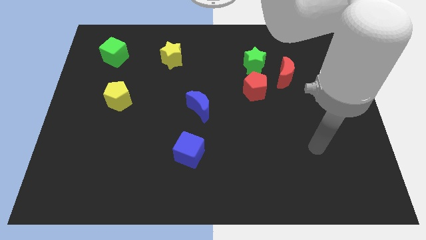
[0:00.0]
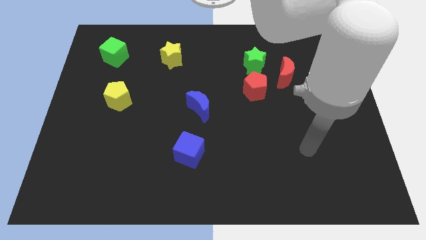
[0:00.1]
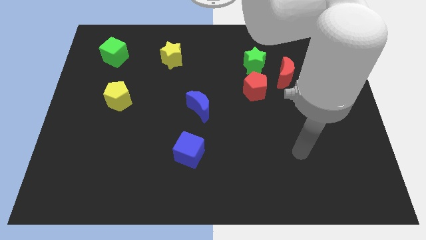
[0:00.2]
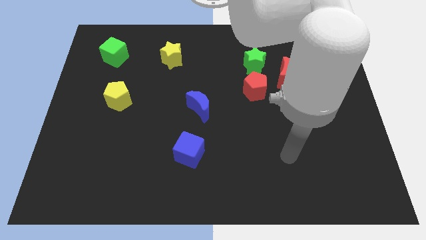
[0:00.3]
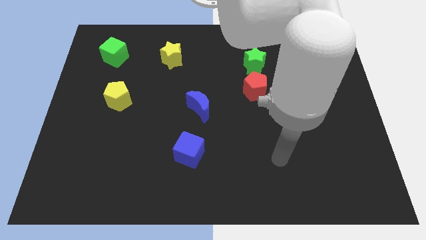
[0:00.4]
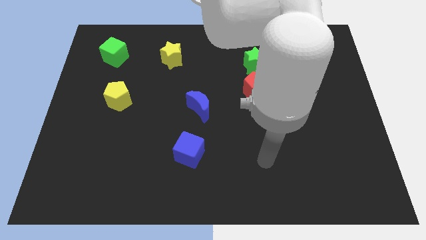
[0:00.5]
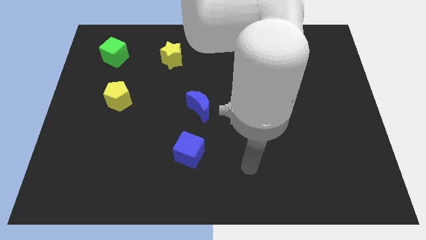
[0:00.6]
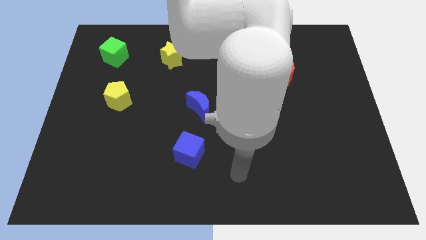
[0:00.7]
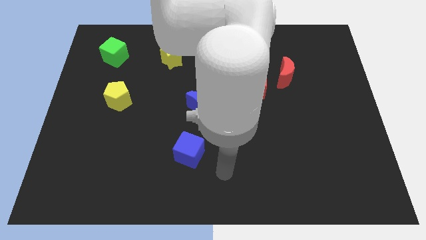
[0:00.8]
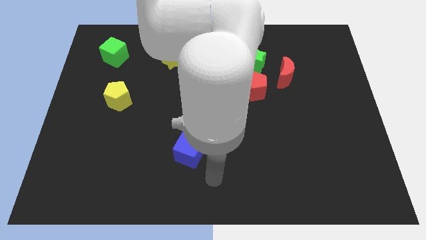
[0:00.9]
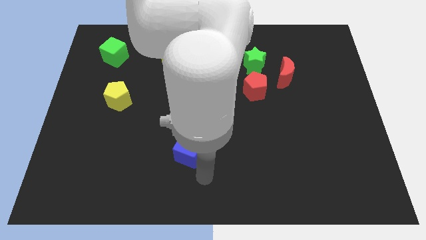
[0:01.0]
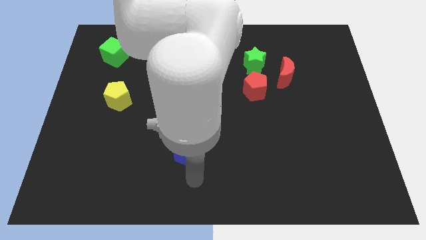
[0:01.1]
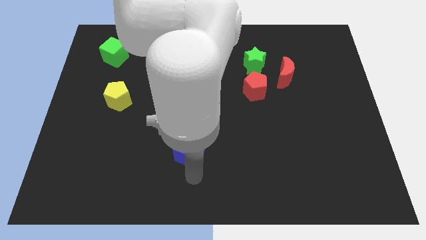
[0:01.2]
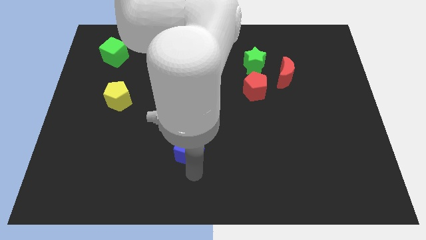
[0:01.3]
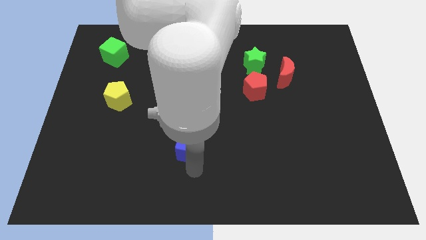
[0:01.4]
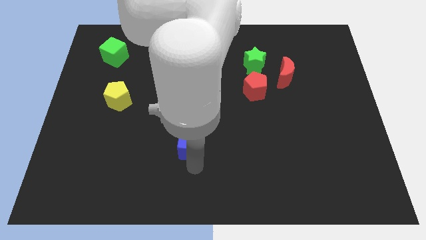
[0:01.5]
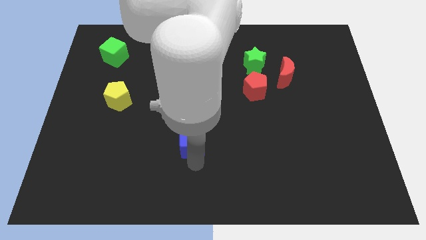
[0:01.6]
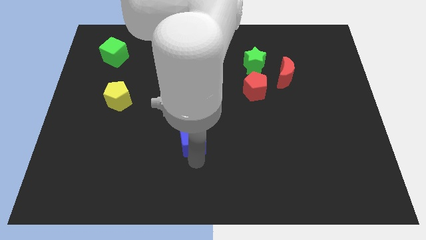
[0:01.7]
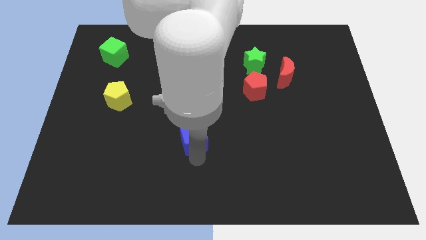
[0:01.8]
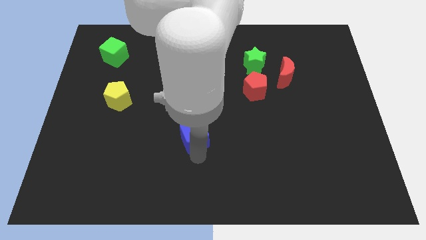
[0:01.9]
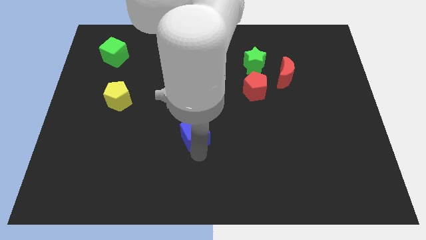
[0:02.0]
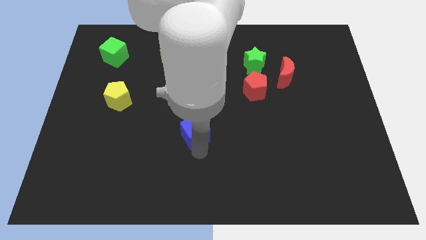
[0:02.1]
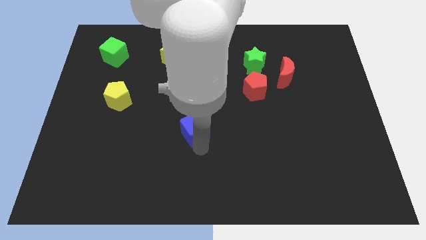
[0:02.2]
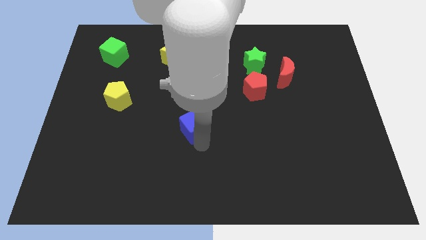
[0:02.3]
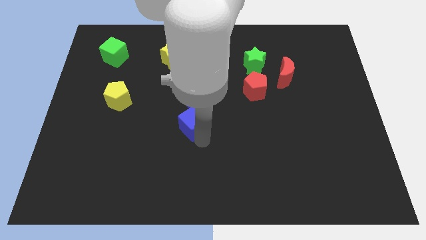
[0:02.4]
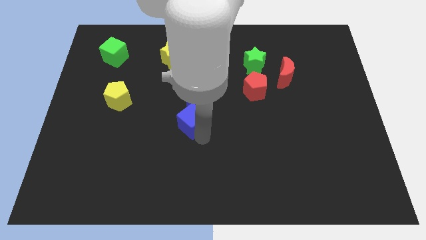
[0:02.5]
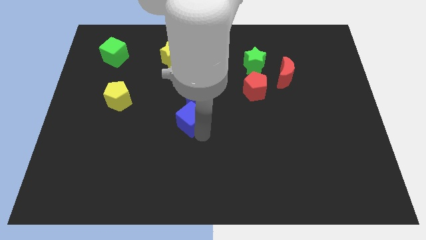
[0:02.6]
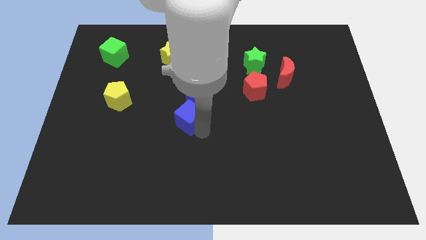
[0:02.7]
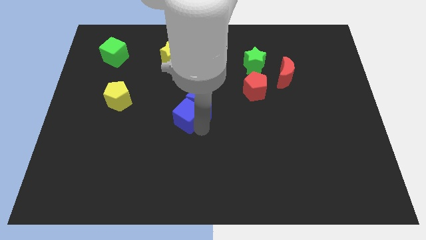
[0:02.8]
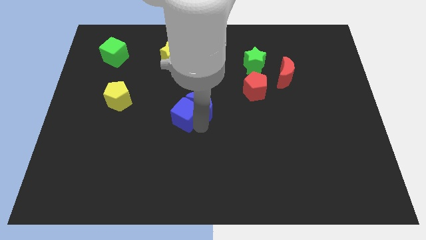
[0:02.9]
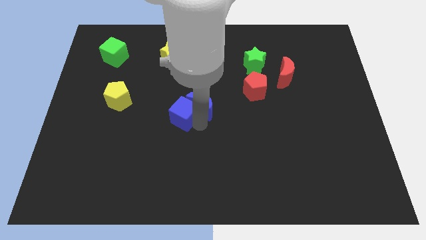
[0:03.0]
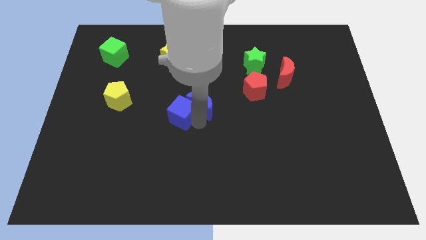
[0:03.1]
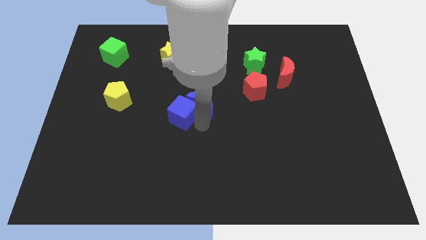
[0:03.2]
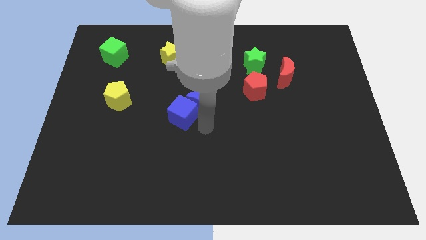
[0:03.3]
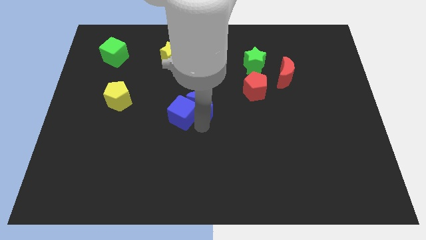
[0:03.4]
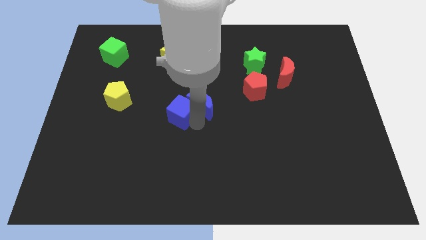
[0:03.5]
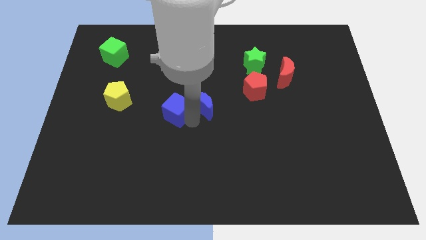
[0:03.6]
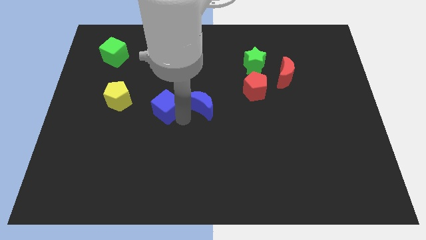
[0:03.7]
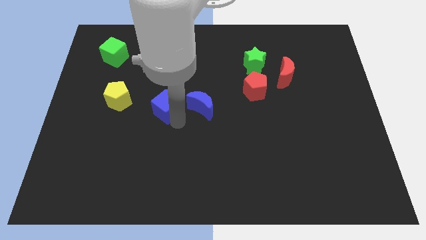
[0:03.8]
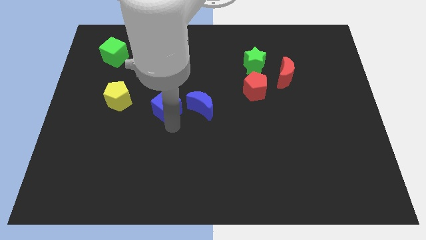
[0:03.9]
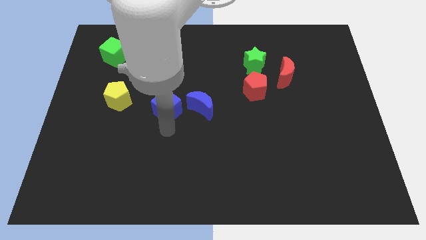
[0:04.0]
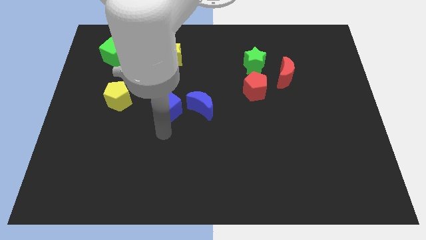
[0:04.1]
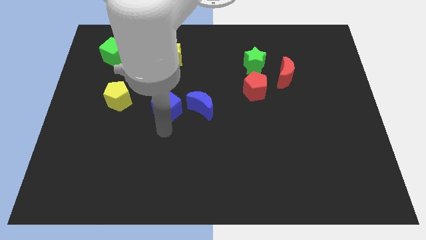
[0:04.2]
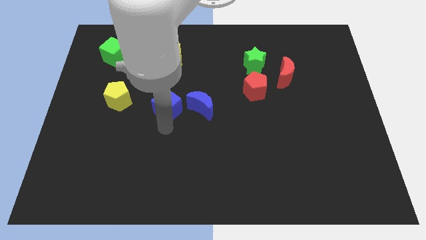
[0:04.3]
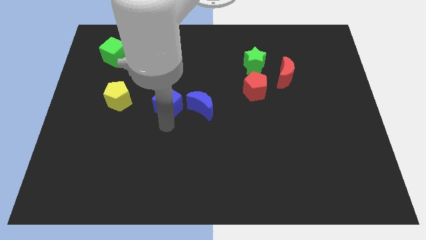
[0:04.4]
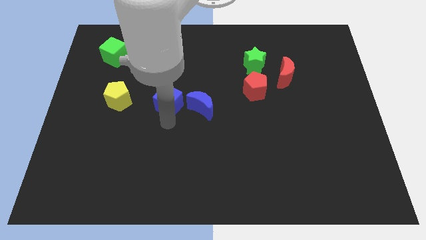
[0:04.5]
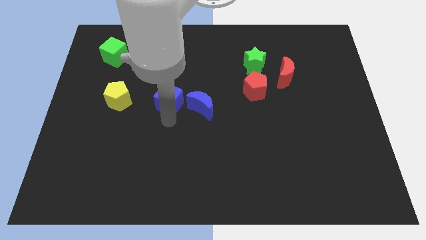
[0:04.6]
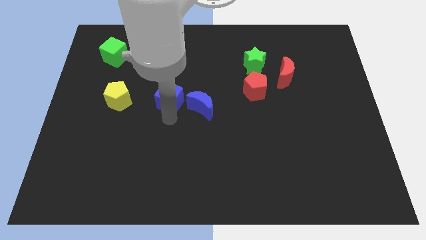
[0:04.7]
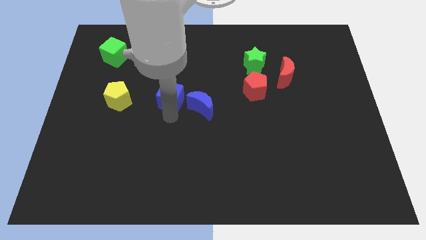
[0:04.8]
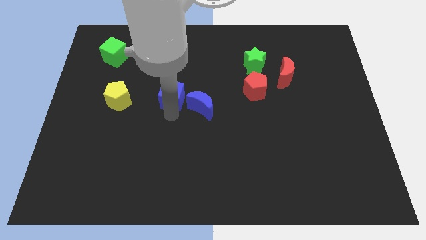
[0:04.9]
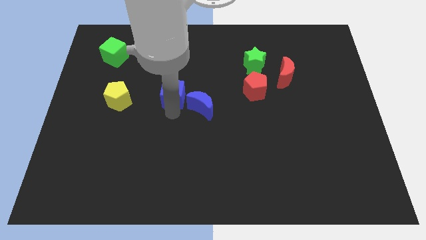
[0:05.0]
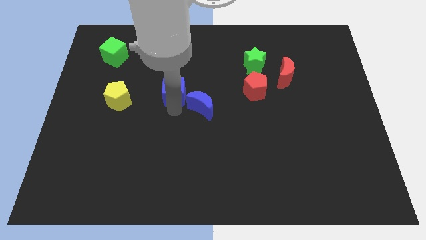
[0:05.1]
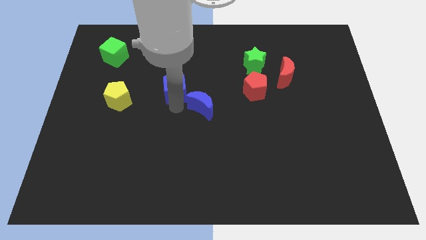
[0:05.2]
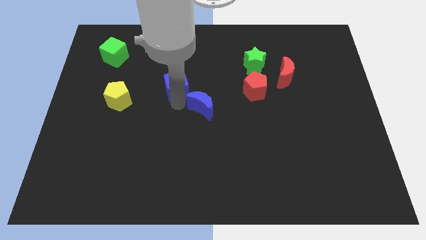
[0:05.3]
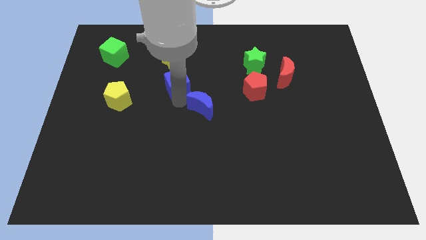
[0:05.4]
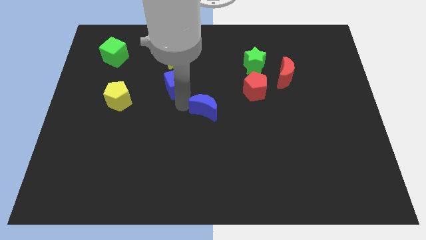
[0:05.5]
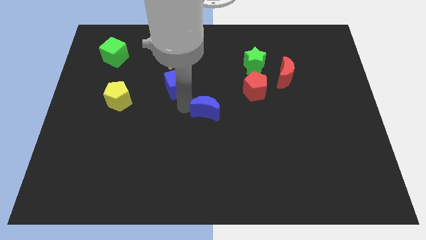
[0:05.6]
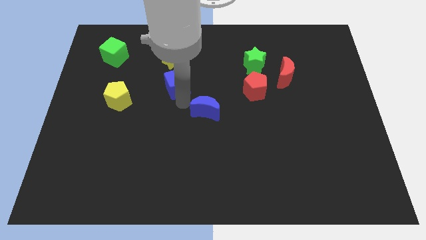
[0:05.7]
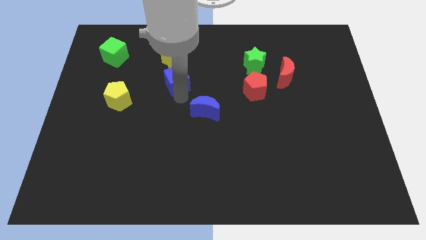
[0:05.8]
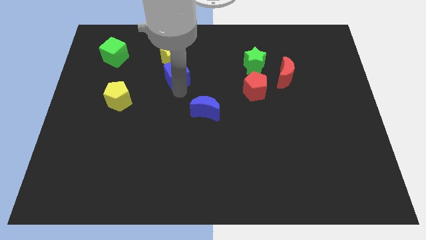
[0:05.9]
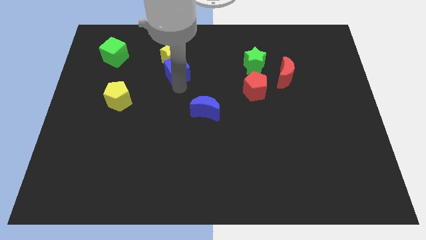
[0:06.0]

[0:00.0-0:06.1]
slide the blue cube towards the yellow star

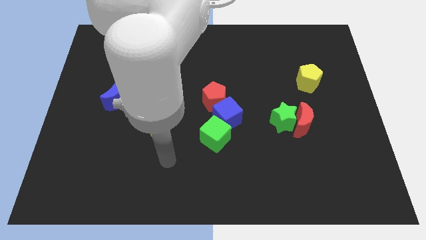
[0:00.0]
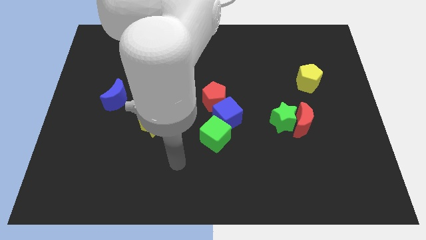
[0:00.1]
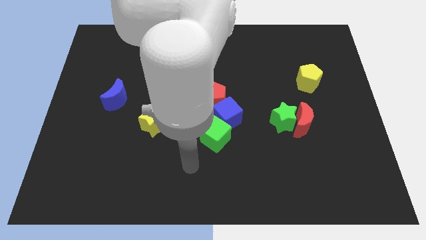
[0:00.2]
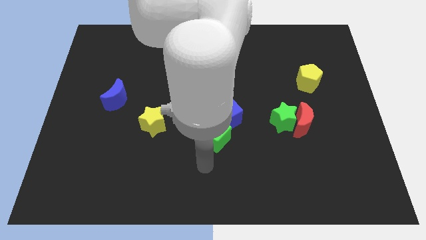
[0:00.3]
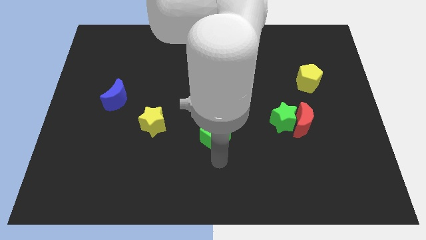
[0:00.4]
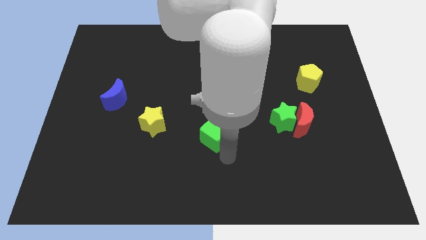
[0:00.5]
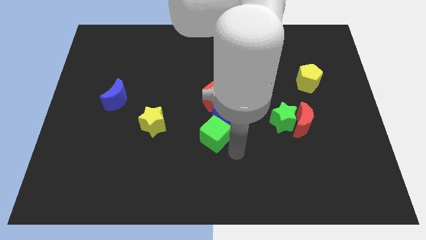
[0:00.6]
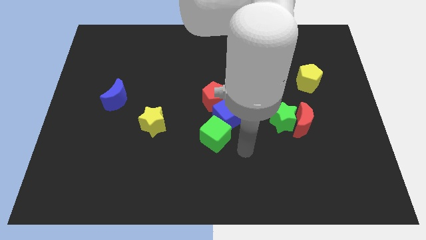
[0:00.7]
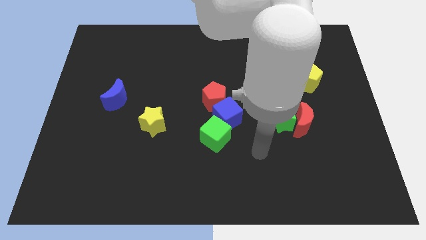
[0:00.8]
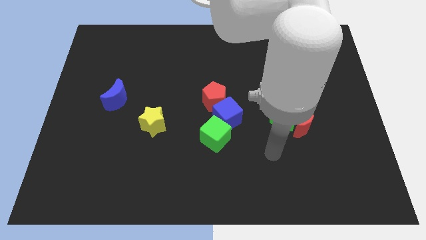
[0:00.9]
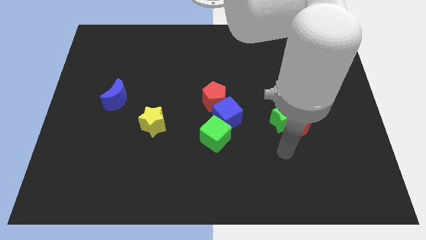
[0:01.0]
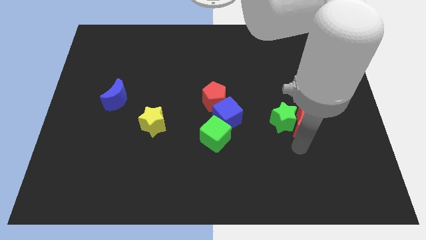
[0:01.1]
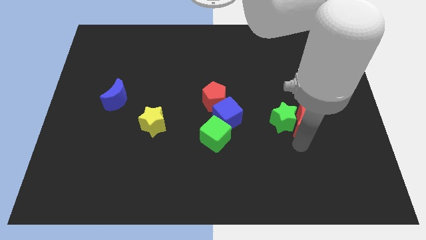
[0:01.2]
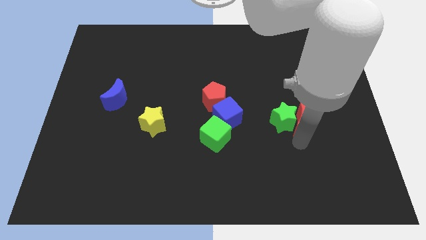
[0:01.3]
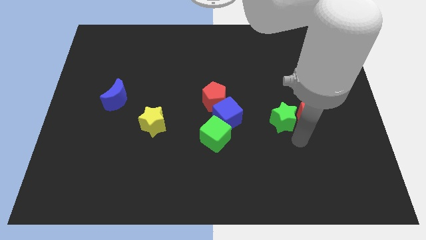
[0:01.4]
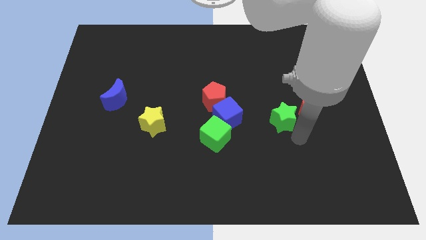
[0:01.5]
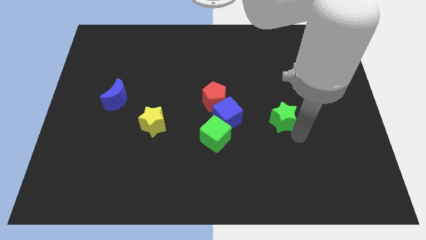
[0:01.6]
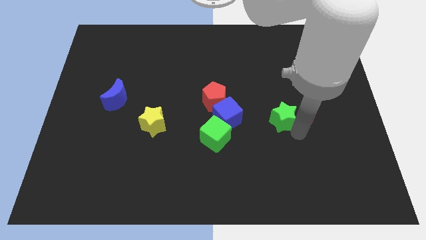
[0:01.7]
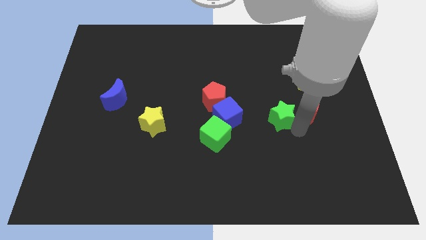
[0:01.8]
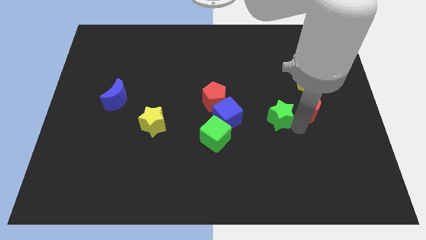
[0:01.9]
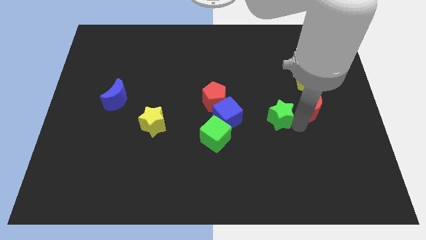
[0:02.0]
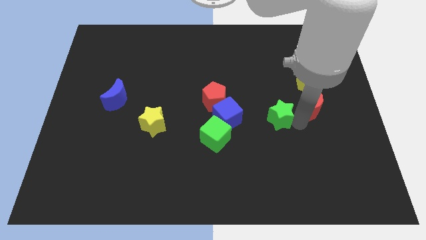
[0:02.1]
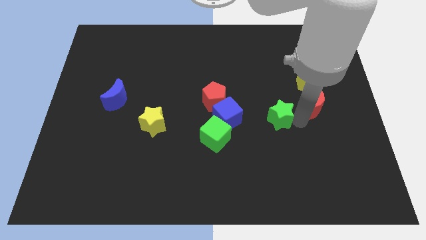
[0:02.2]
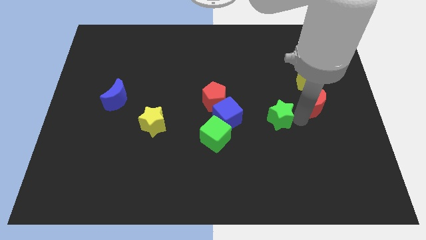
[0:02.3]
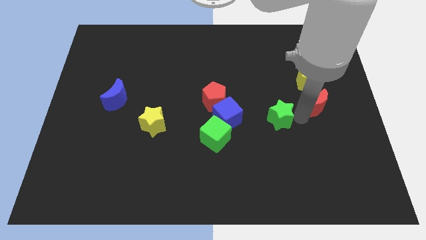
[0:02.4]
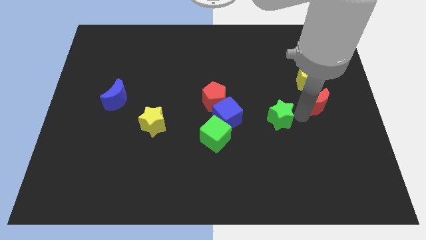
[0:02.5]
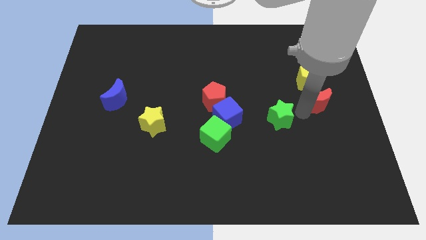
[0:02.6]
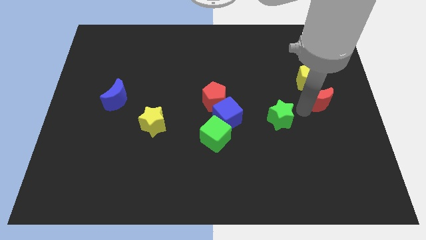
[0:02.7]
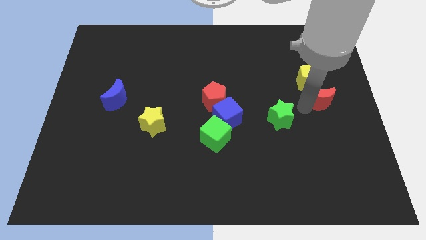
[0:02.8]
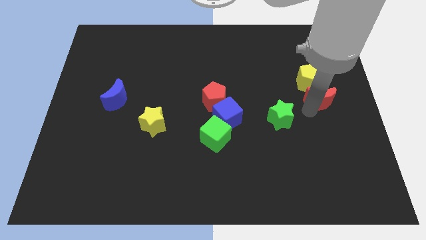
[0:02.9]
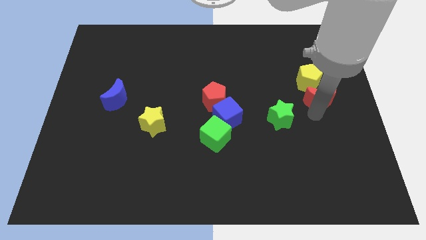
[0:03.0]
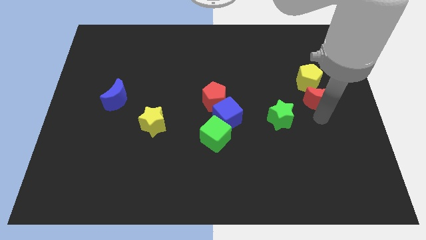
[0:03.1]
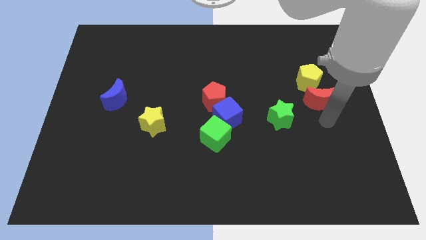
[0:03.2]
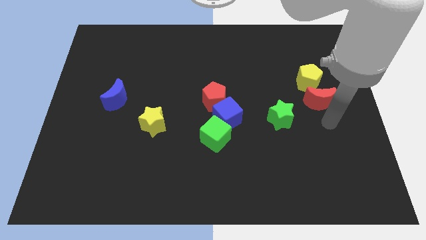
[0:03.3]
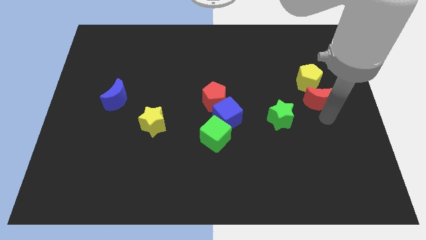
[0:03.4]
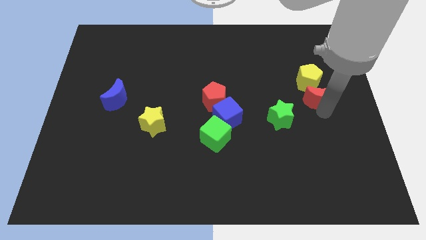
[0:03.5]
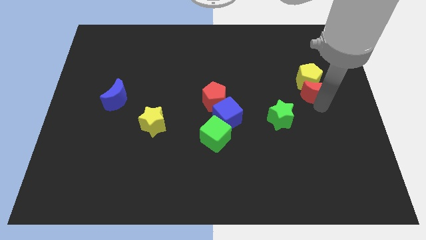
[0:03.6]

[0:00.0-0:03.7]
push the red moon close to the yellow pentagon
